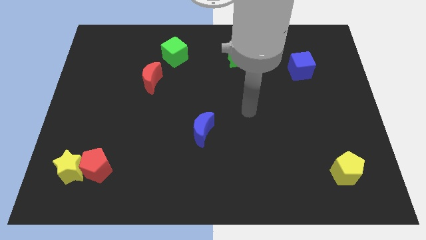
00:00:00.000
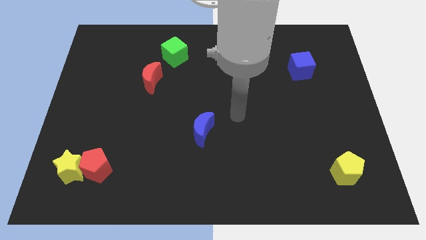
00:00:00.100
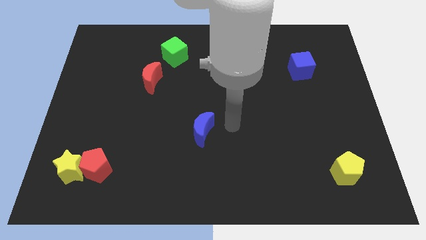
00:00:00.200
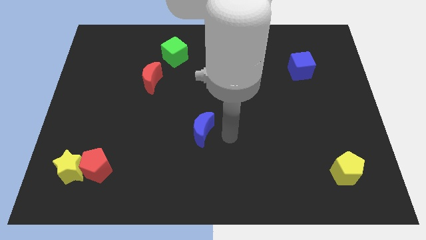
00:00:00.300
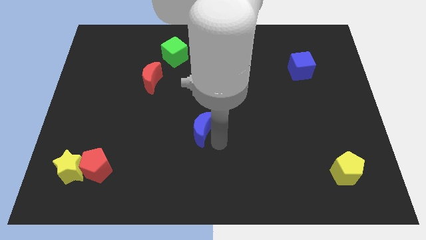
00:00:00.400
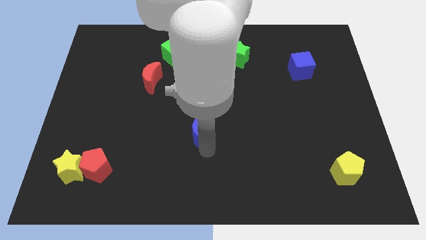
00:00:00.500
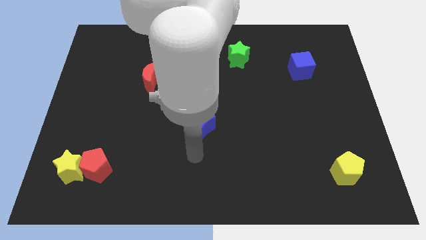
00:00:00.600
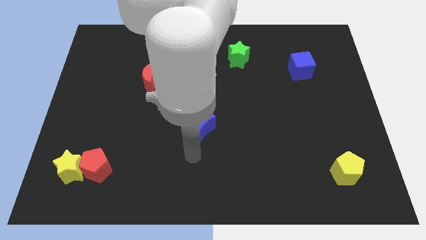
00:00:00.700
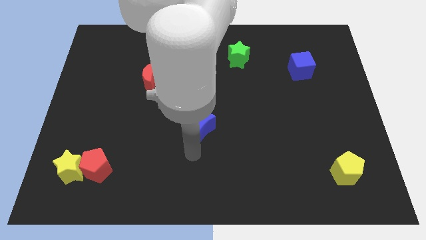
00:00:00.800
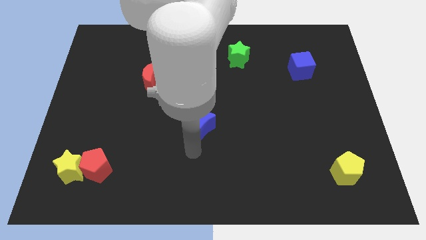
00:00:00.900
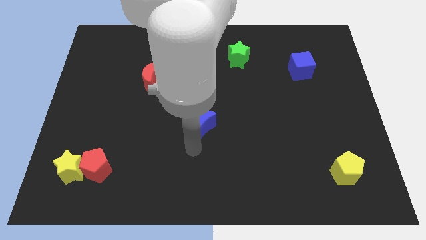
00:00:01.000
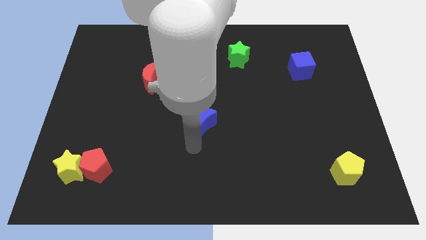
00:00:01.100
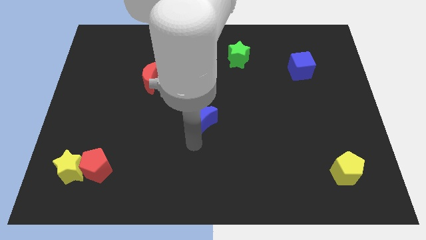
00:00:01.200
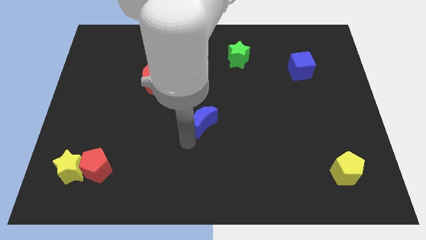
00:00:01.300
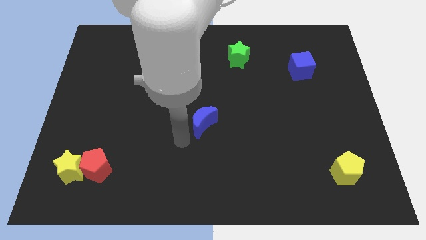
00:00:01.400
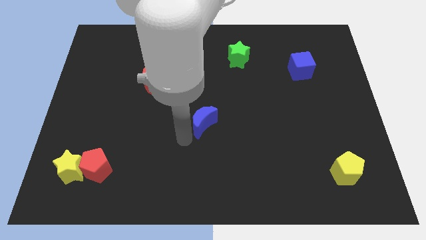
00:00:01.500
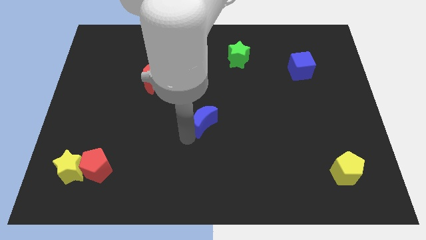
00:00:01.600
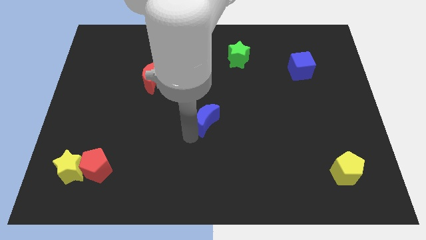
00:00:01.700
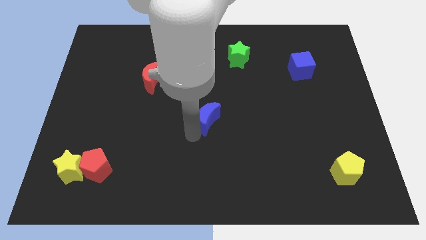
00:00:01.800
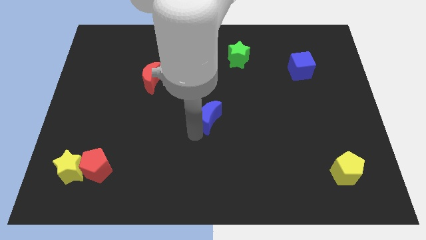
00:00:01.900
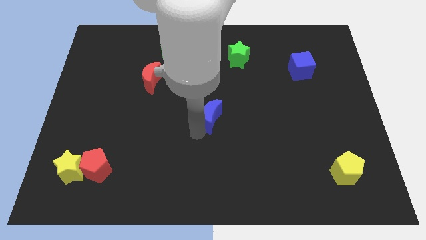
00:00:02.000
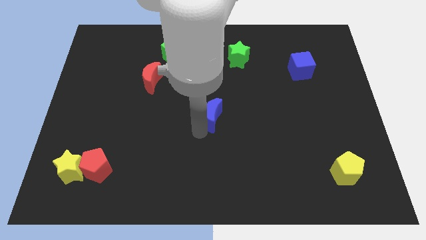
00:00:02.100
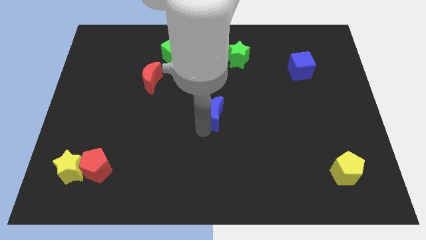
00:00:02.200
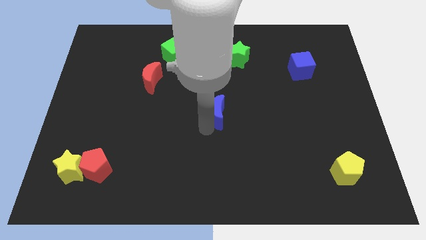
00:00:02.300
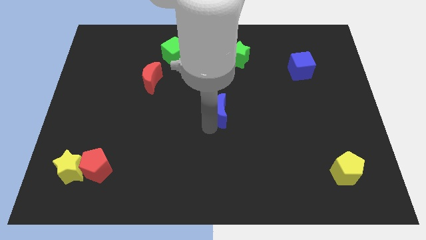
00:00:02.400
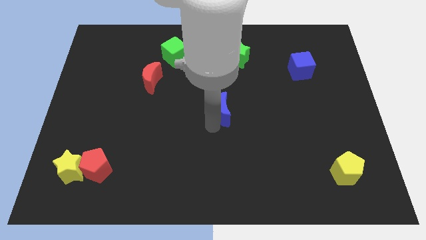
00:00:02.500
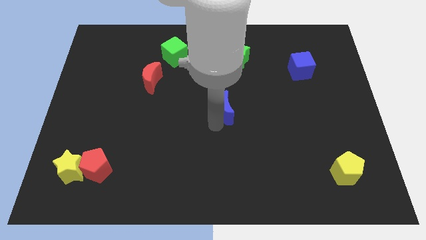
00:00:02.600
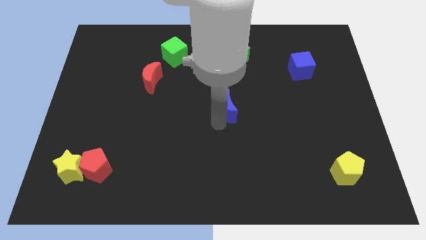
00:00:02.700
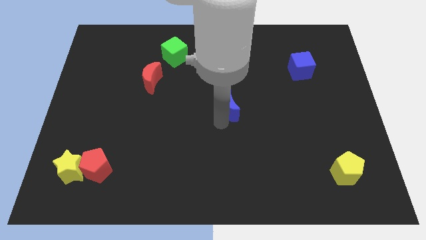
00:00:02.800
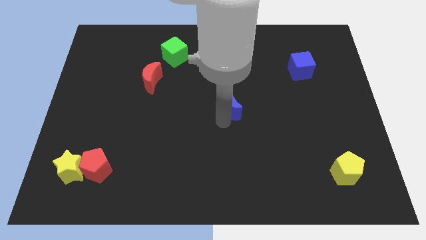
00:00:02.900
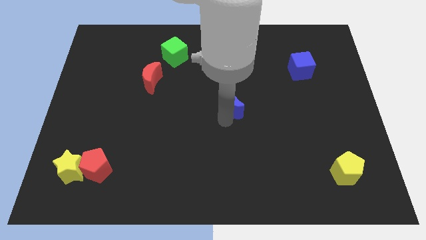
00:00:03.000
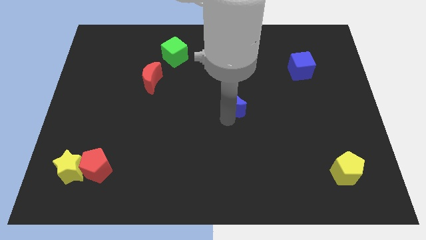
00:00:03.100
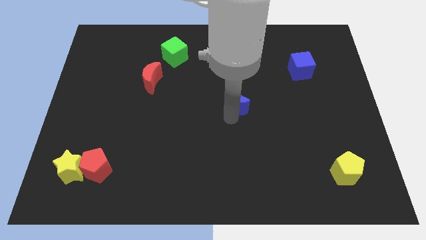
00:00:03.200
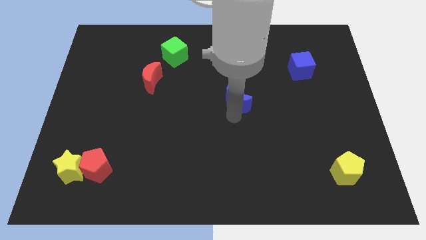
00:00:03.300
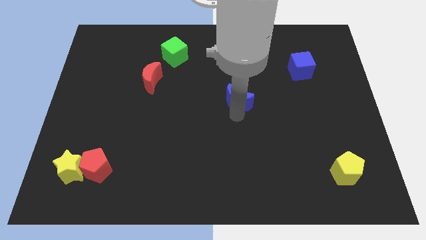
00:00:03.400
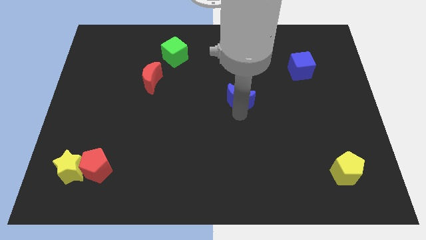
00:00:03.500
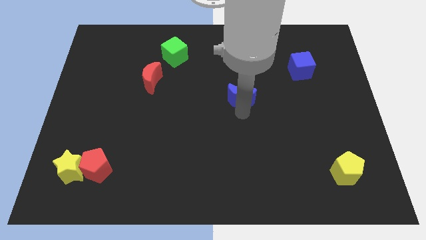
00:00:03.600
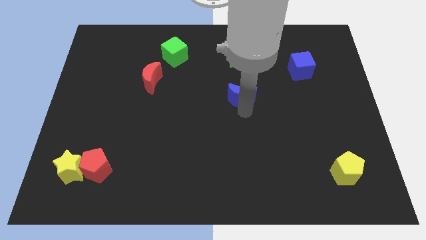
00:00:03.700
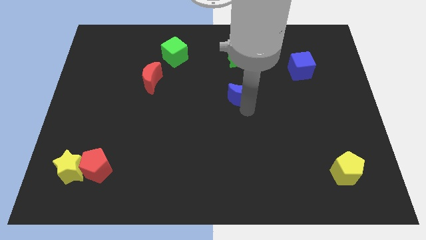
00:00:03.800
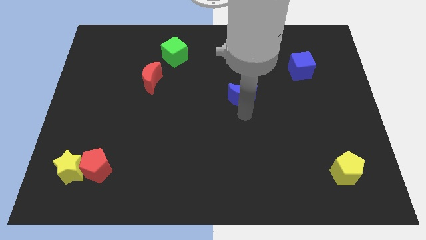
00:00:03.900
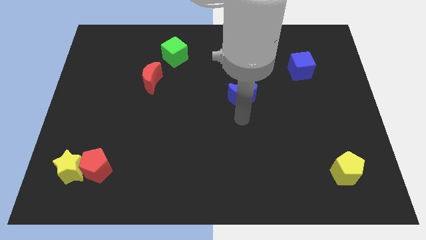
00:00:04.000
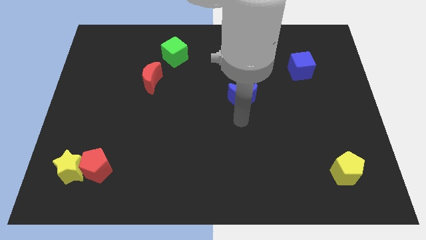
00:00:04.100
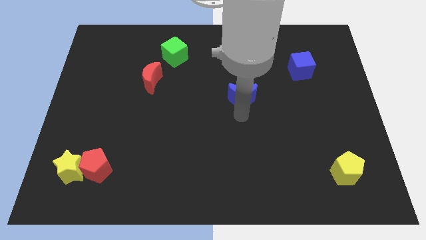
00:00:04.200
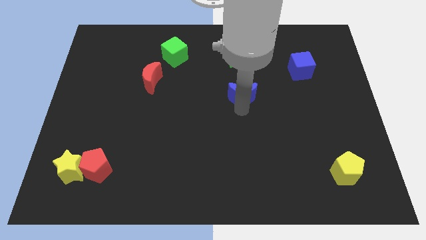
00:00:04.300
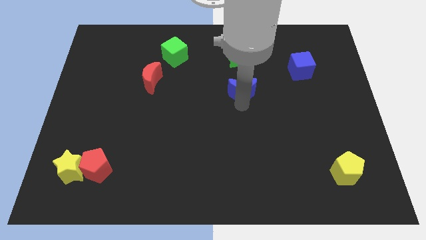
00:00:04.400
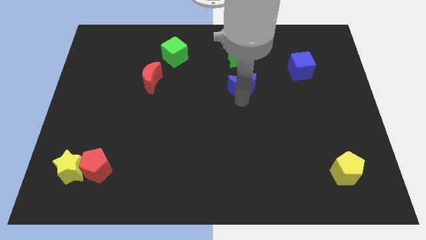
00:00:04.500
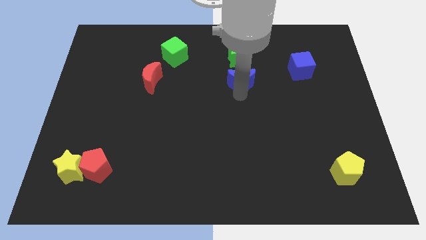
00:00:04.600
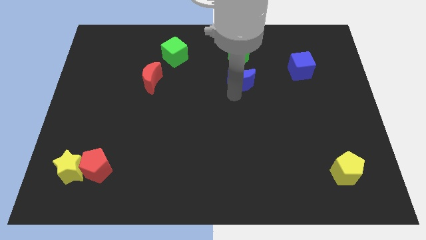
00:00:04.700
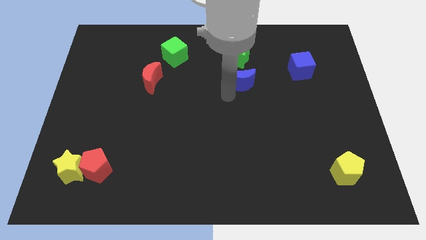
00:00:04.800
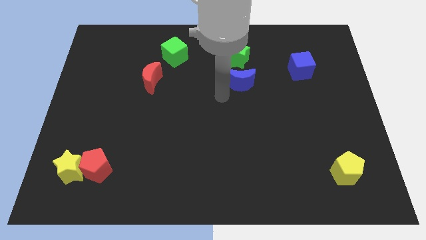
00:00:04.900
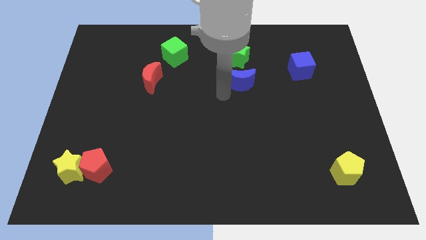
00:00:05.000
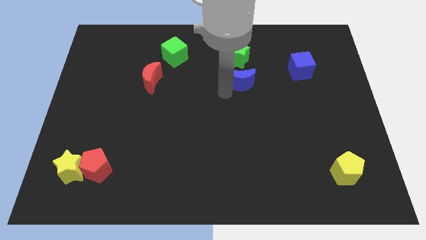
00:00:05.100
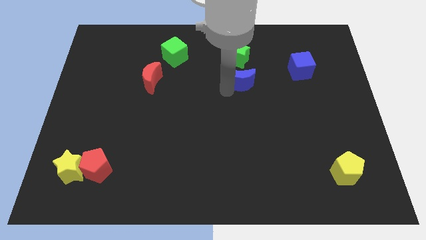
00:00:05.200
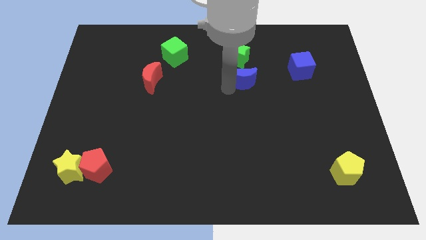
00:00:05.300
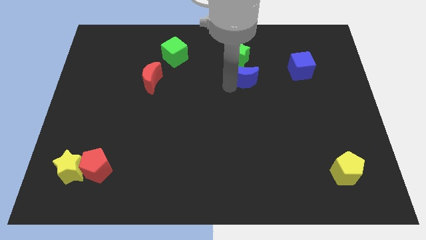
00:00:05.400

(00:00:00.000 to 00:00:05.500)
move the blue moon to the bottom right of the green star

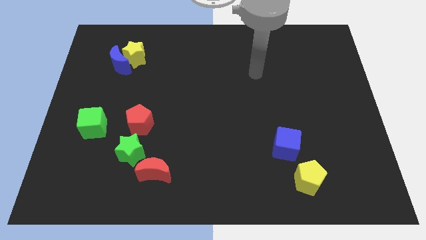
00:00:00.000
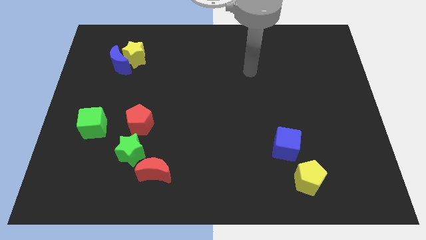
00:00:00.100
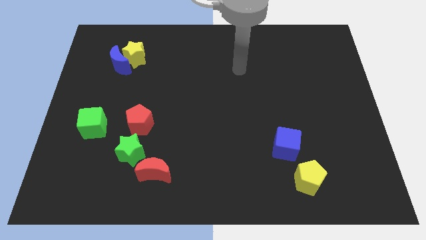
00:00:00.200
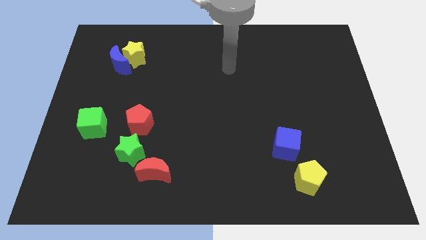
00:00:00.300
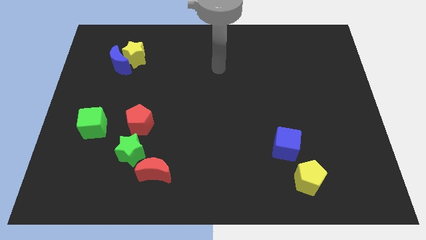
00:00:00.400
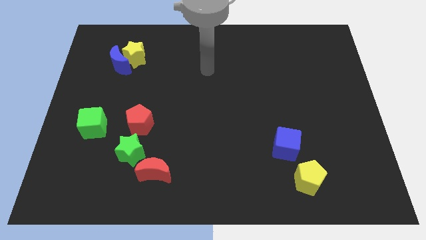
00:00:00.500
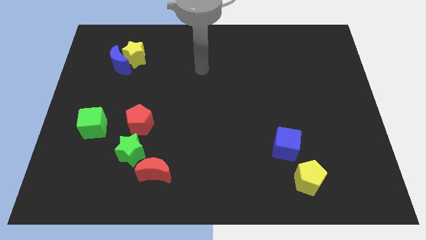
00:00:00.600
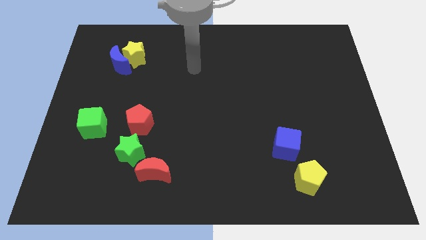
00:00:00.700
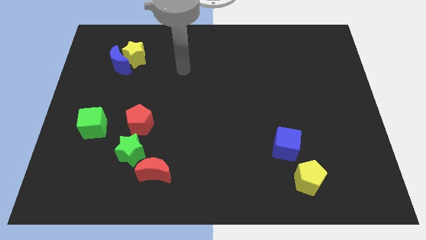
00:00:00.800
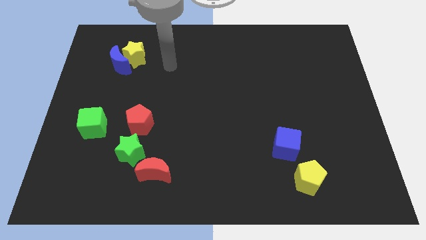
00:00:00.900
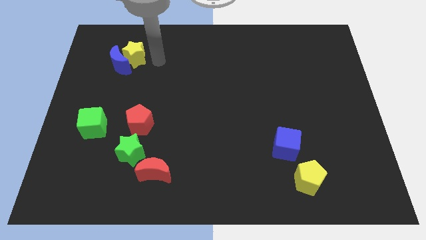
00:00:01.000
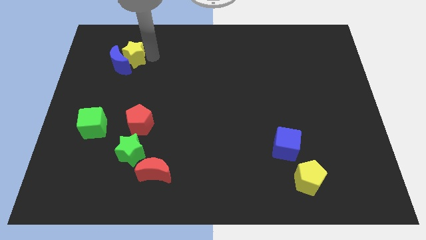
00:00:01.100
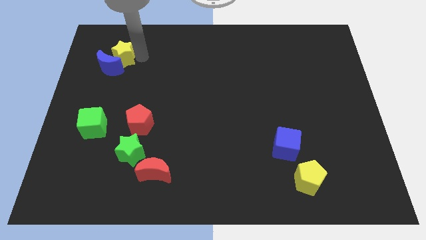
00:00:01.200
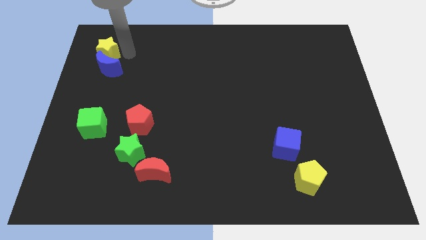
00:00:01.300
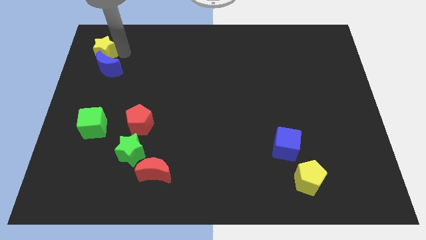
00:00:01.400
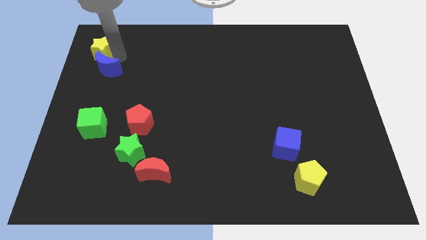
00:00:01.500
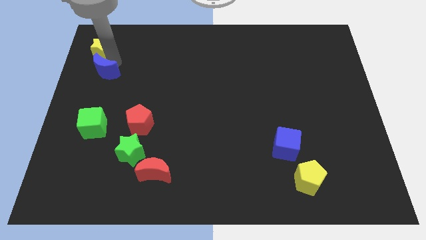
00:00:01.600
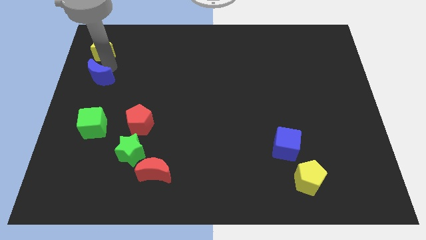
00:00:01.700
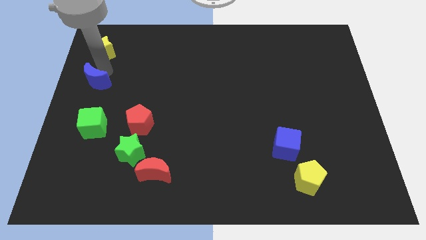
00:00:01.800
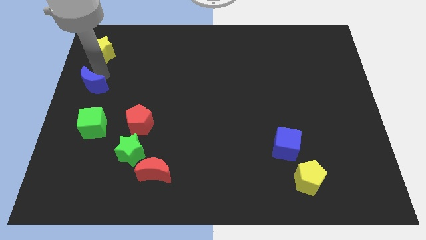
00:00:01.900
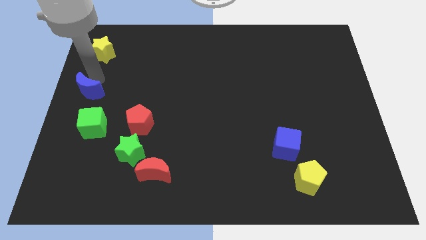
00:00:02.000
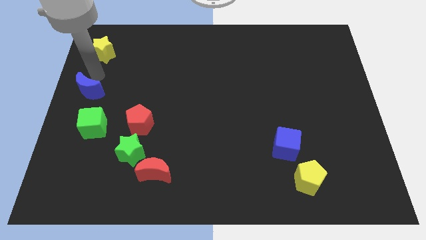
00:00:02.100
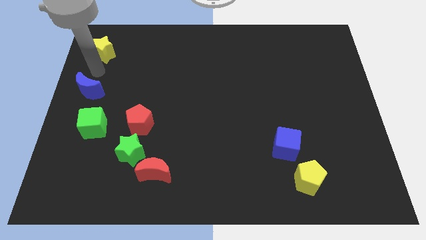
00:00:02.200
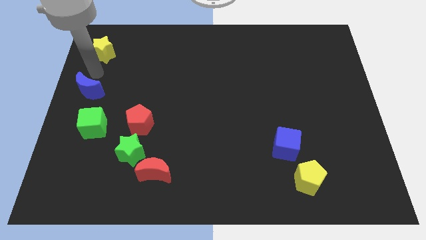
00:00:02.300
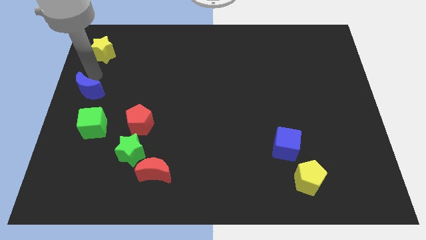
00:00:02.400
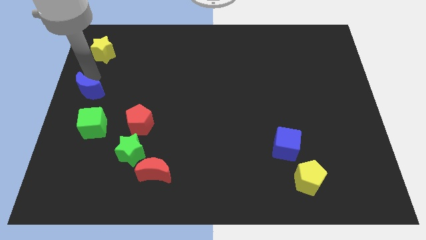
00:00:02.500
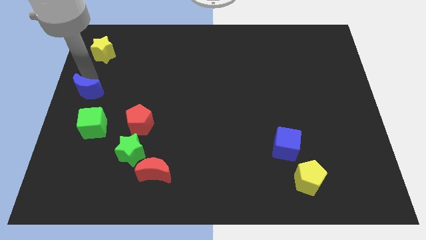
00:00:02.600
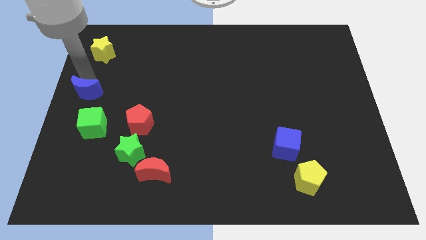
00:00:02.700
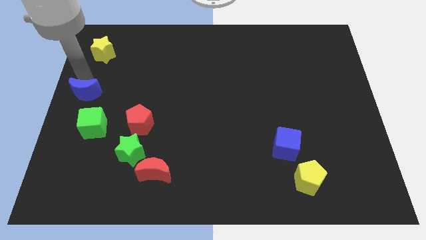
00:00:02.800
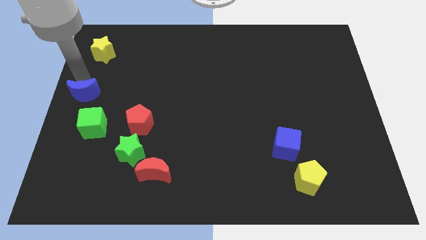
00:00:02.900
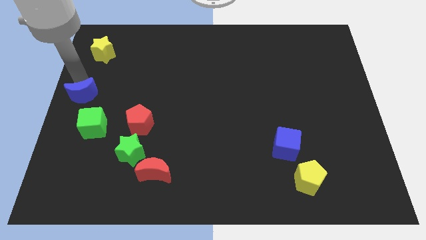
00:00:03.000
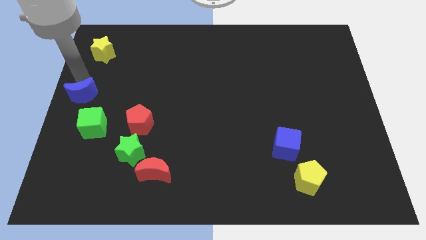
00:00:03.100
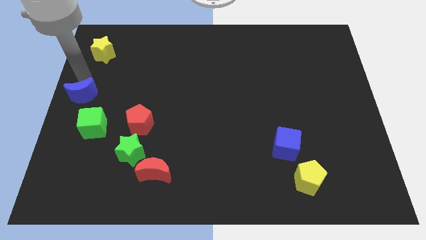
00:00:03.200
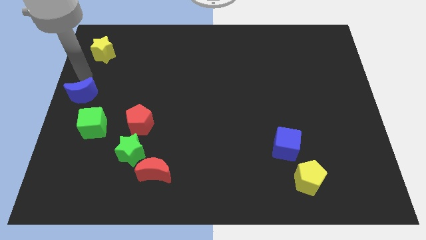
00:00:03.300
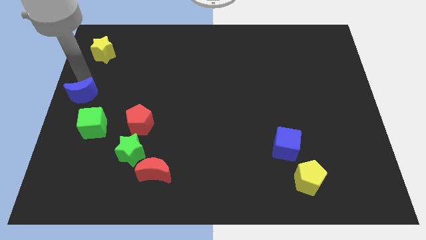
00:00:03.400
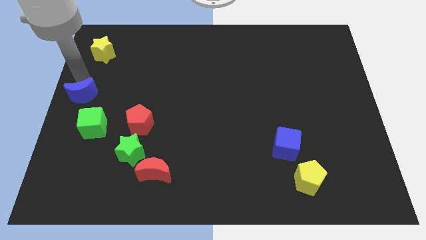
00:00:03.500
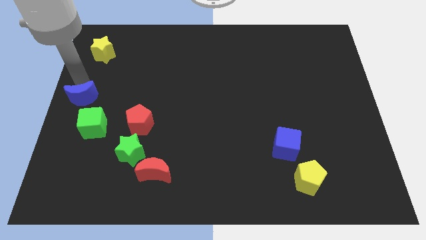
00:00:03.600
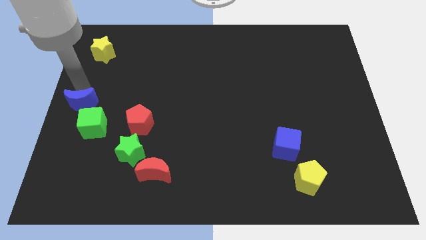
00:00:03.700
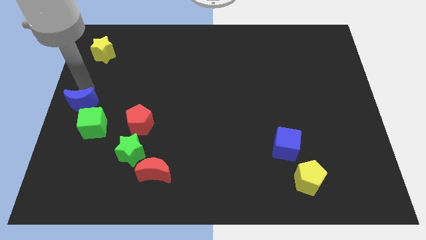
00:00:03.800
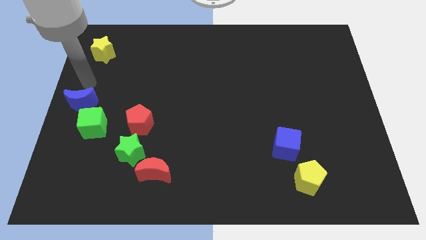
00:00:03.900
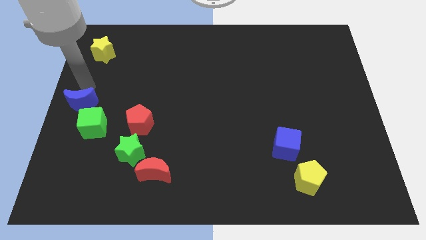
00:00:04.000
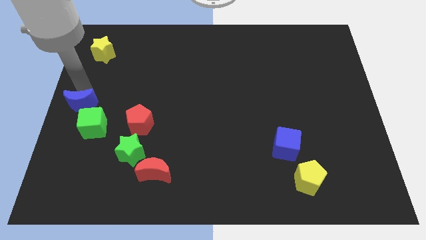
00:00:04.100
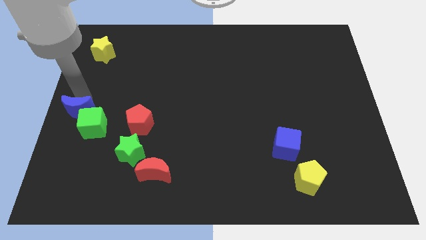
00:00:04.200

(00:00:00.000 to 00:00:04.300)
put the blue moon to the left side of the red pentagon
